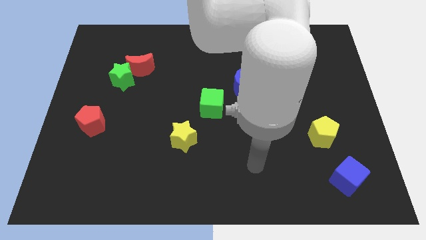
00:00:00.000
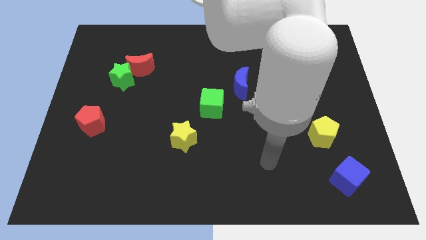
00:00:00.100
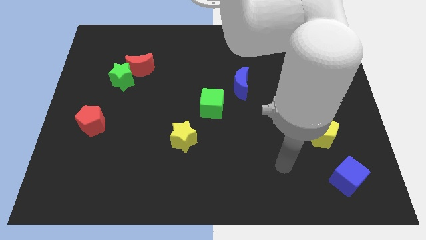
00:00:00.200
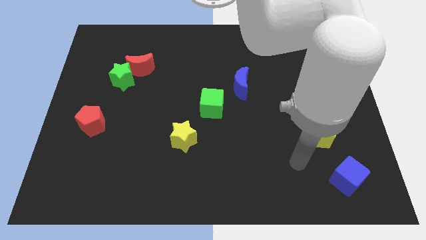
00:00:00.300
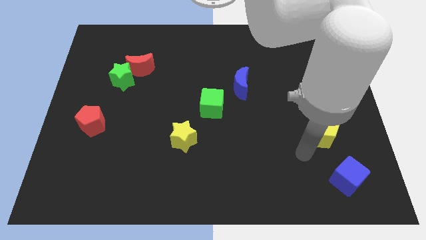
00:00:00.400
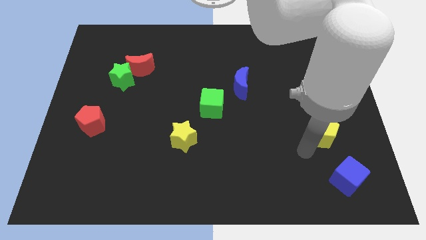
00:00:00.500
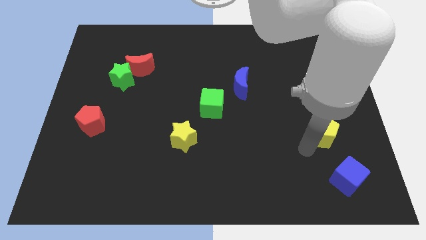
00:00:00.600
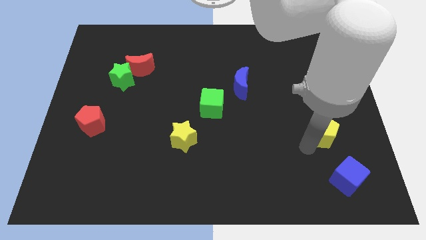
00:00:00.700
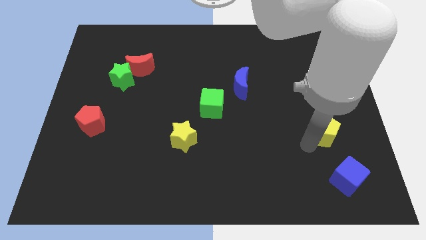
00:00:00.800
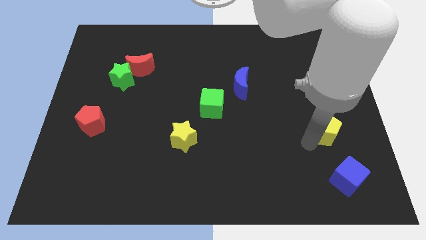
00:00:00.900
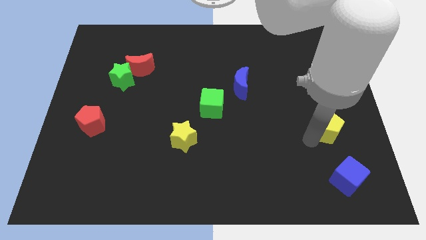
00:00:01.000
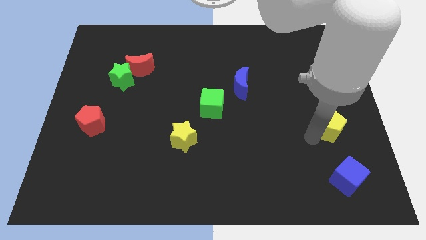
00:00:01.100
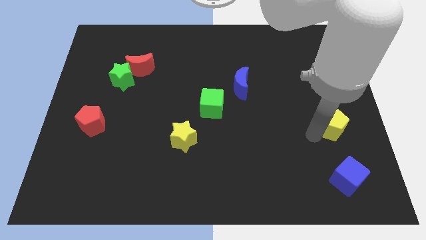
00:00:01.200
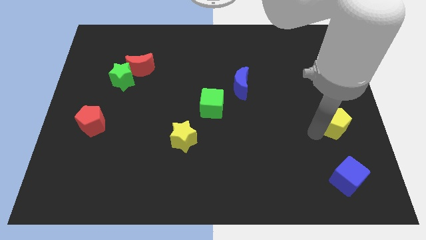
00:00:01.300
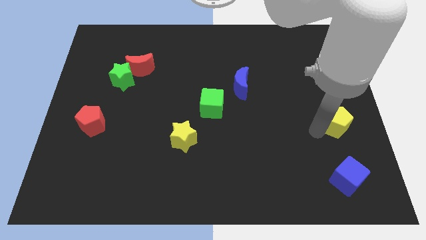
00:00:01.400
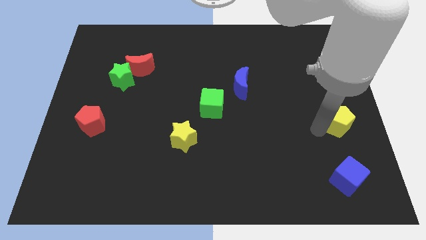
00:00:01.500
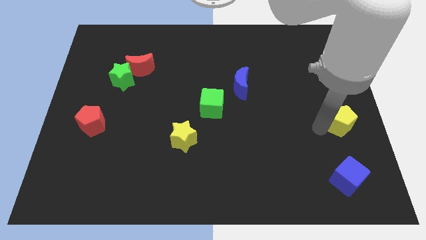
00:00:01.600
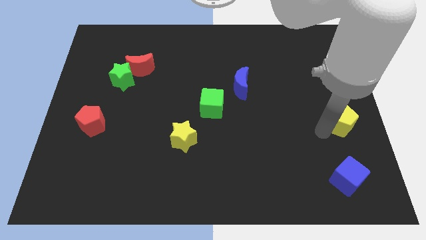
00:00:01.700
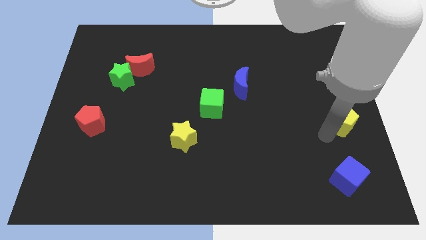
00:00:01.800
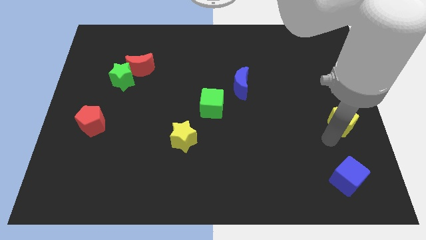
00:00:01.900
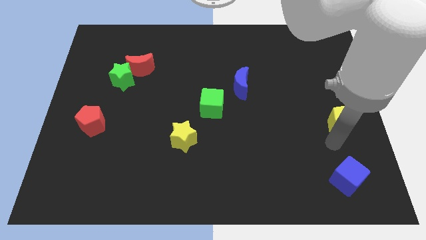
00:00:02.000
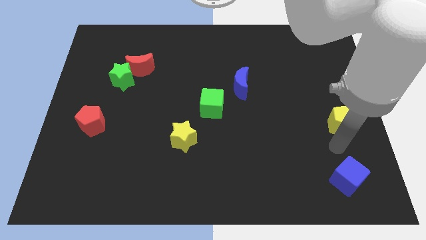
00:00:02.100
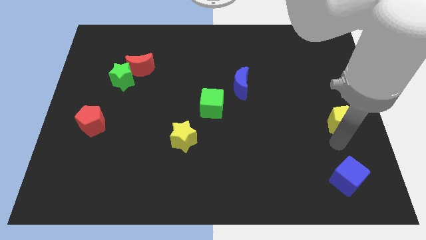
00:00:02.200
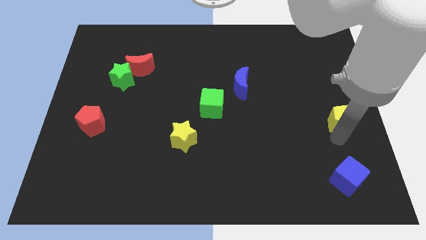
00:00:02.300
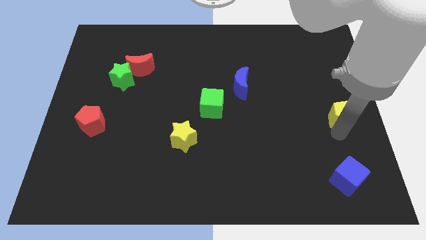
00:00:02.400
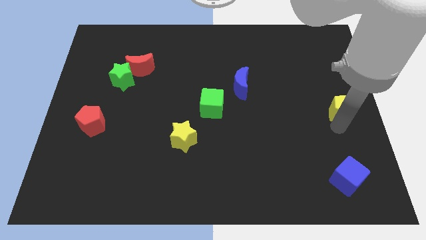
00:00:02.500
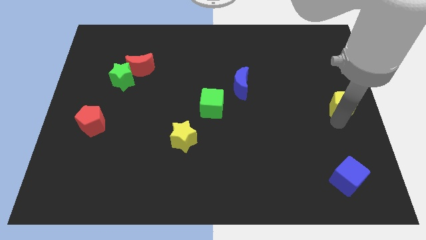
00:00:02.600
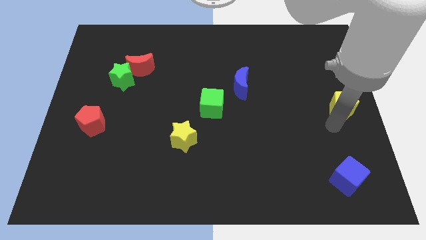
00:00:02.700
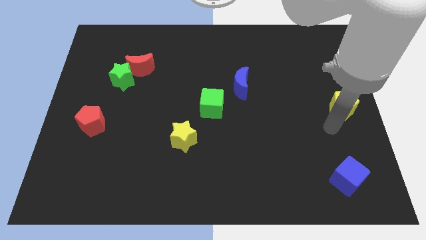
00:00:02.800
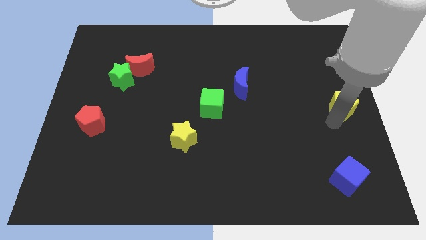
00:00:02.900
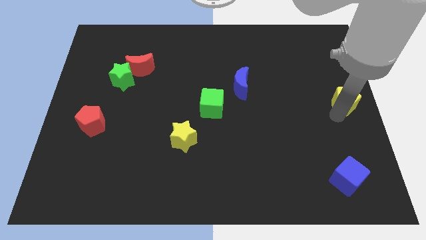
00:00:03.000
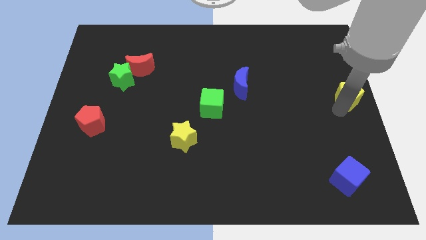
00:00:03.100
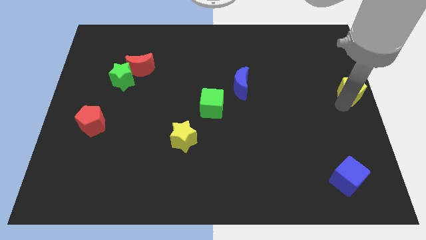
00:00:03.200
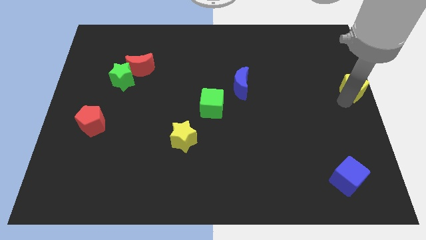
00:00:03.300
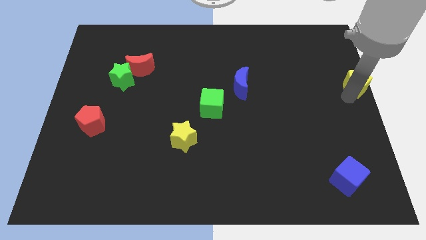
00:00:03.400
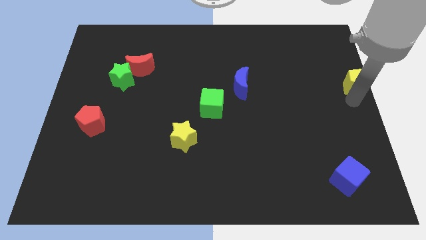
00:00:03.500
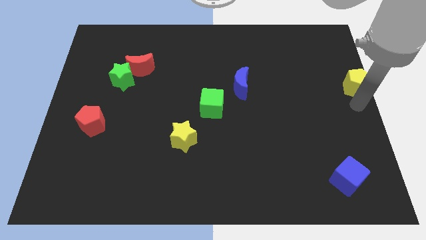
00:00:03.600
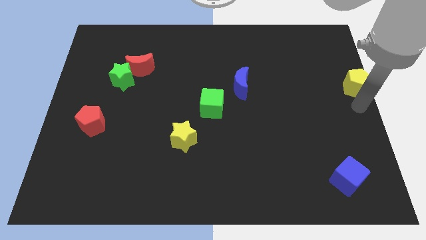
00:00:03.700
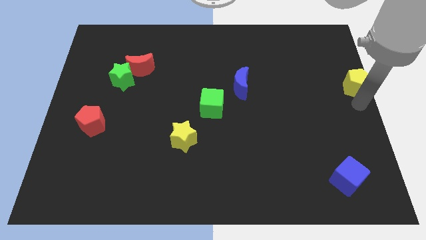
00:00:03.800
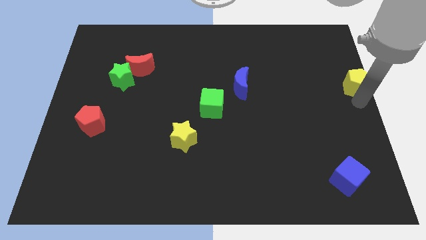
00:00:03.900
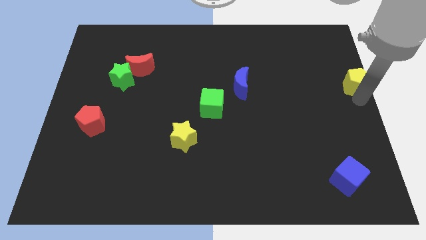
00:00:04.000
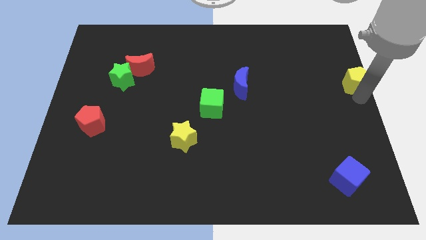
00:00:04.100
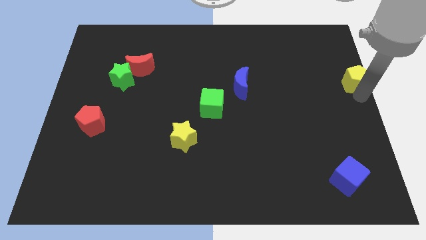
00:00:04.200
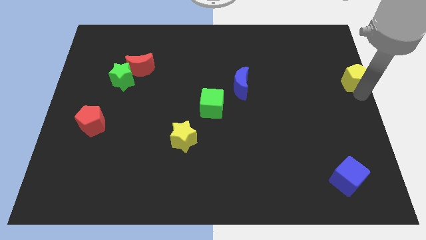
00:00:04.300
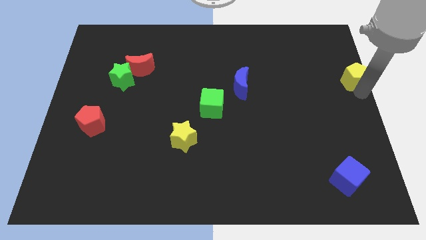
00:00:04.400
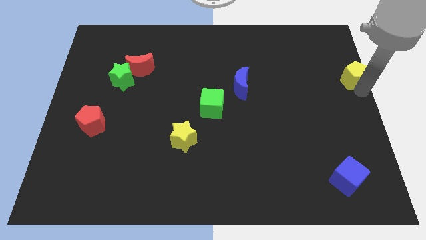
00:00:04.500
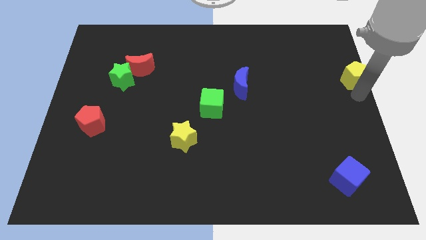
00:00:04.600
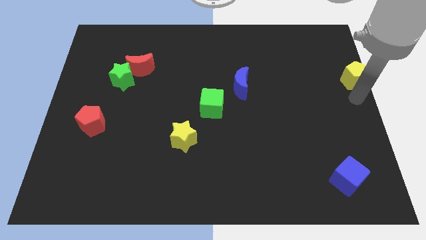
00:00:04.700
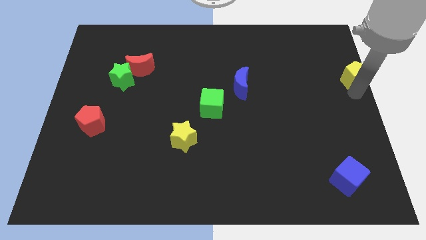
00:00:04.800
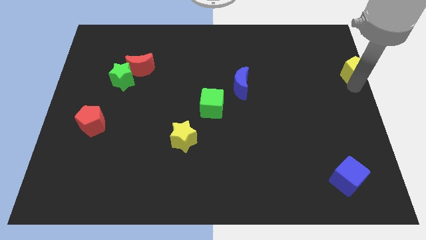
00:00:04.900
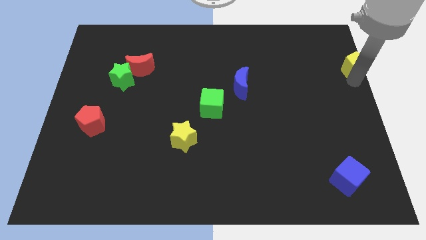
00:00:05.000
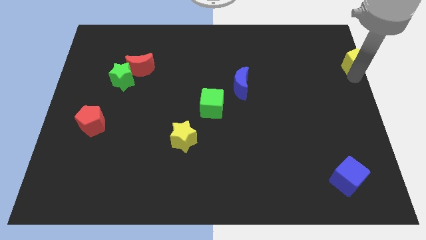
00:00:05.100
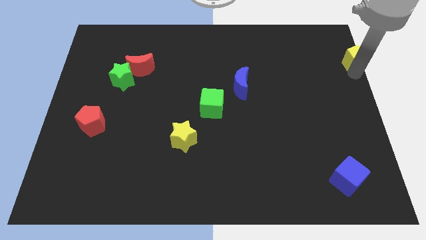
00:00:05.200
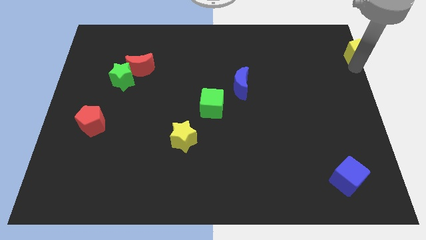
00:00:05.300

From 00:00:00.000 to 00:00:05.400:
slide the yellow pentagon to the top right of the board
